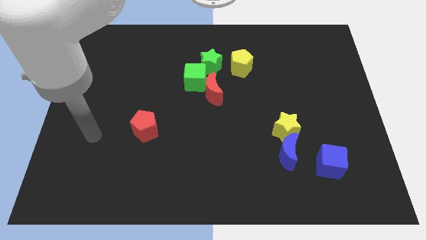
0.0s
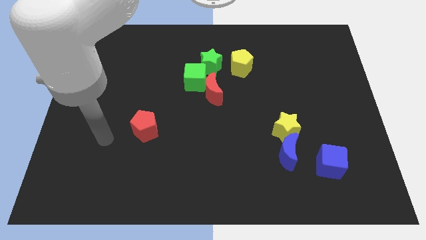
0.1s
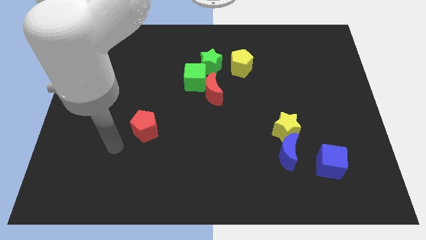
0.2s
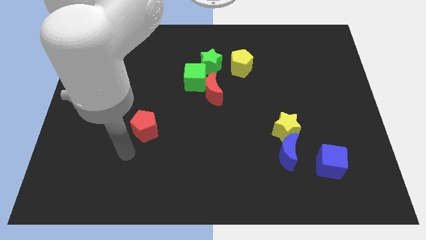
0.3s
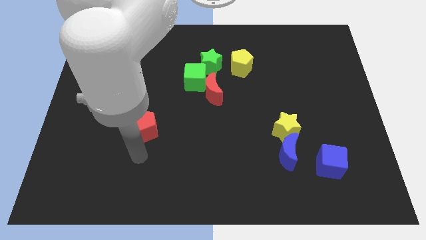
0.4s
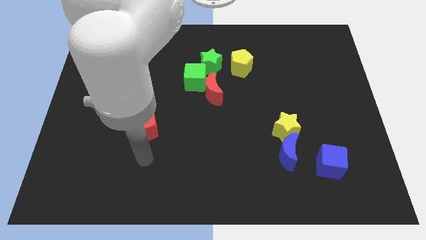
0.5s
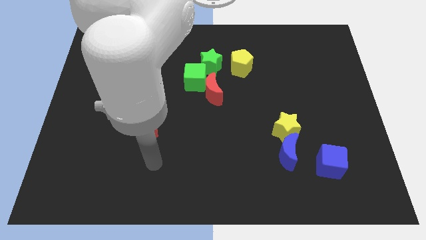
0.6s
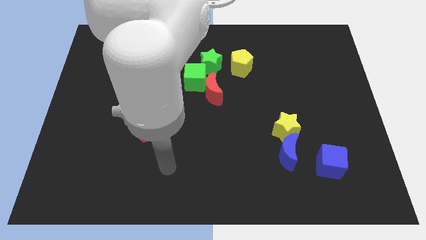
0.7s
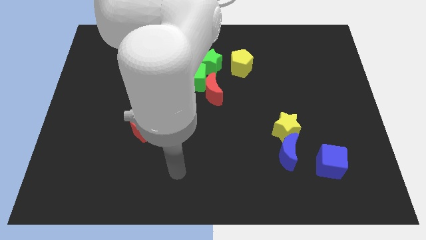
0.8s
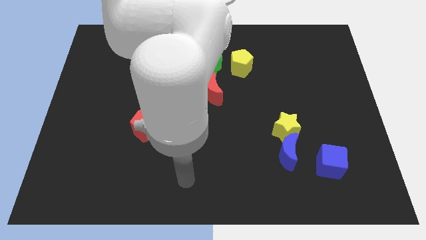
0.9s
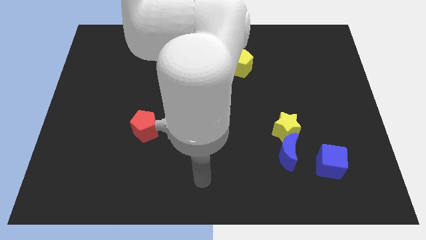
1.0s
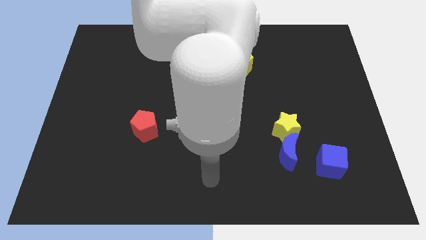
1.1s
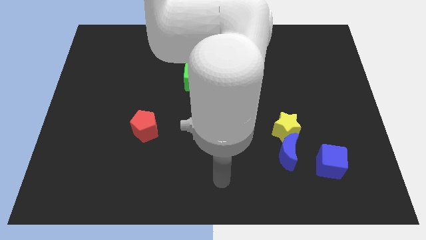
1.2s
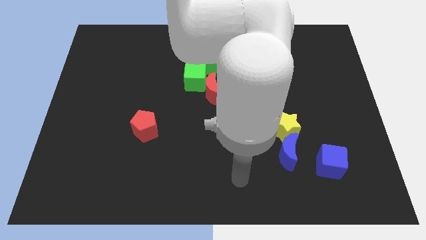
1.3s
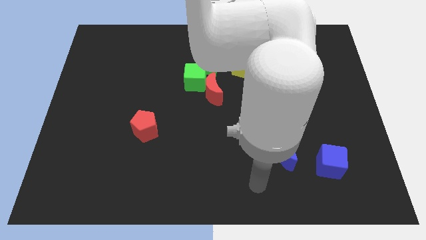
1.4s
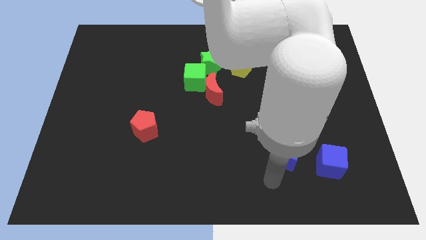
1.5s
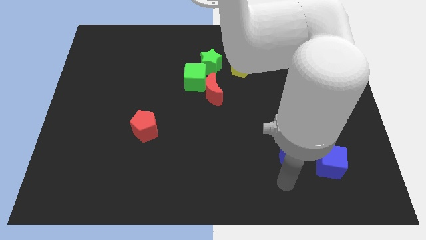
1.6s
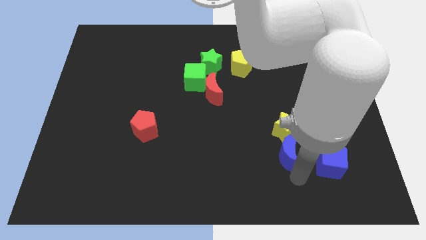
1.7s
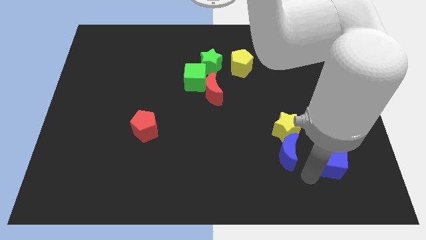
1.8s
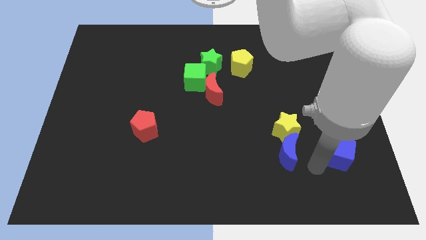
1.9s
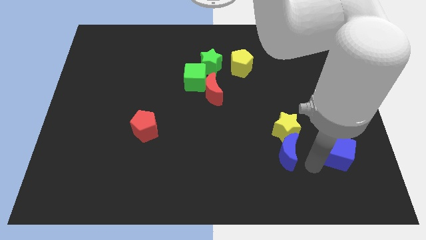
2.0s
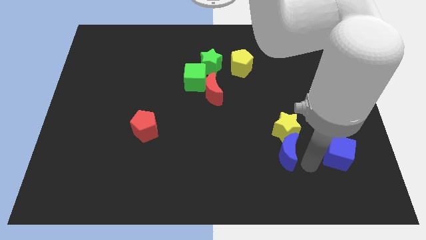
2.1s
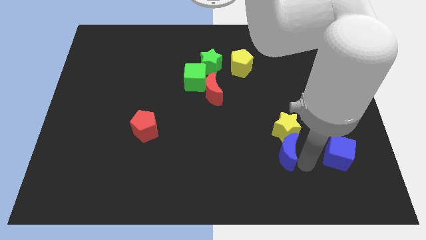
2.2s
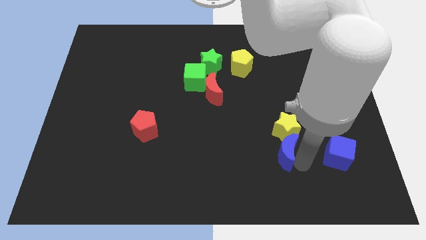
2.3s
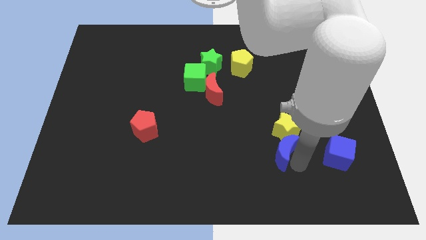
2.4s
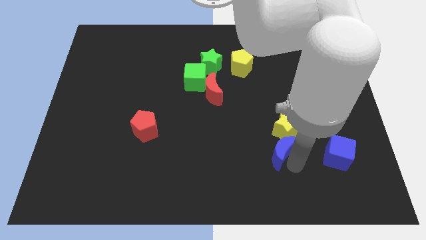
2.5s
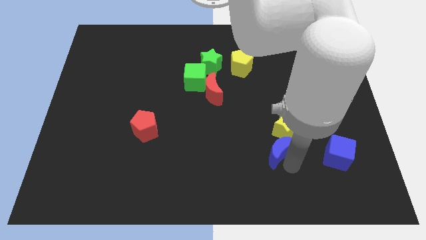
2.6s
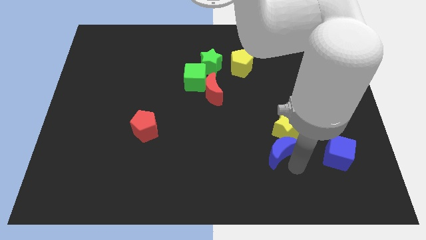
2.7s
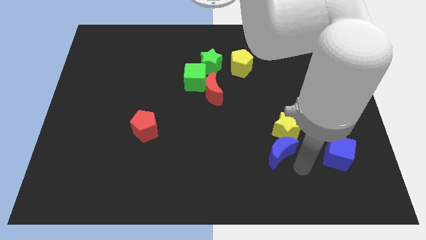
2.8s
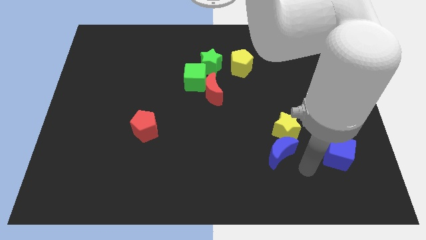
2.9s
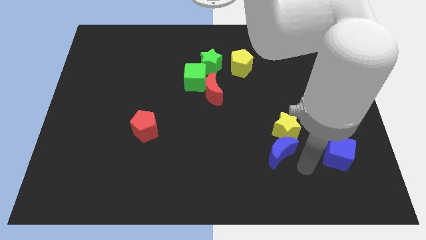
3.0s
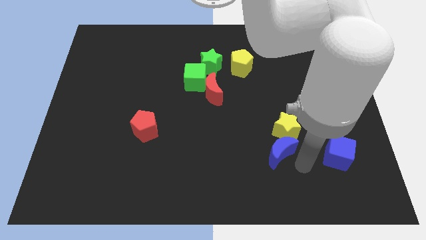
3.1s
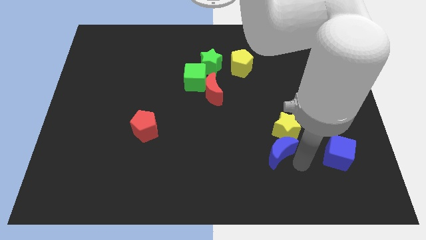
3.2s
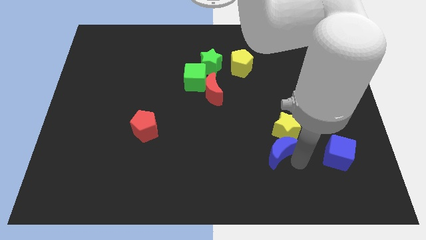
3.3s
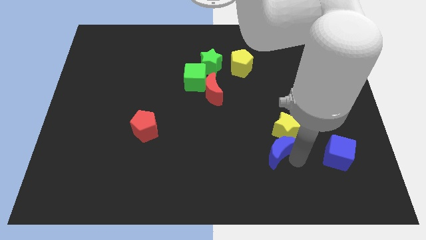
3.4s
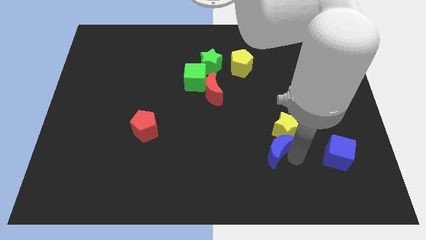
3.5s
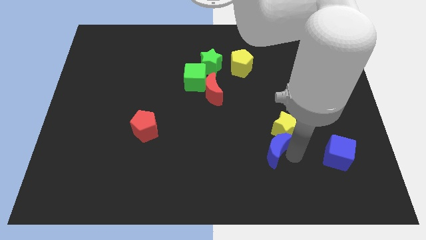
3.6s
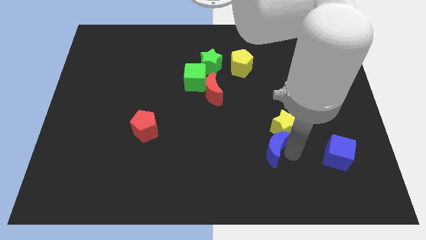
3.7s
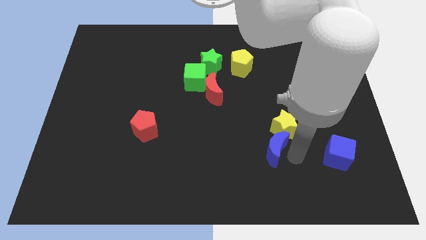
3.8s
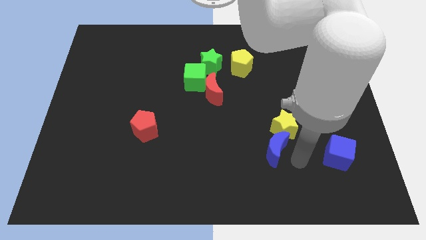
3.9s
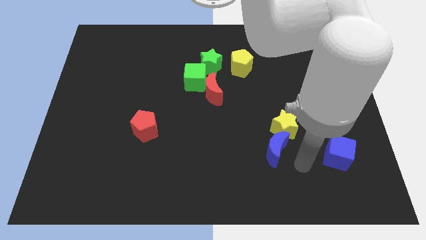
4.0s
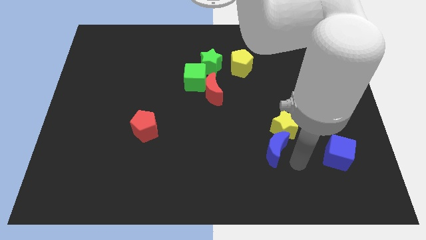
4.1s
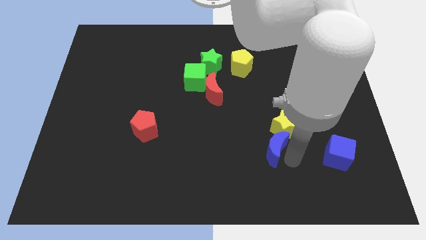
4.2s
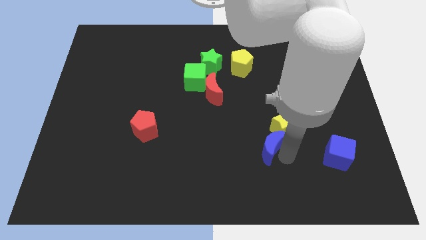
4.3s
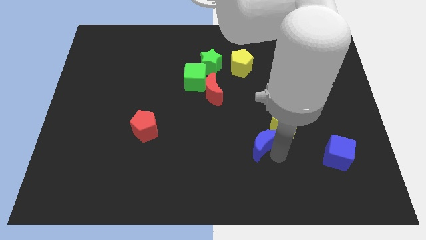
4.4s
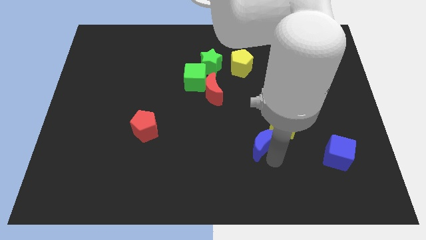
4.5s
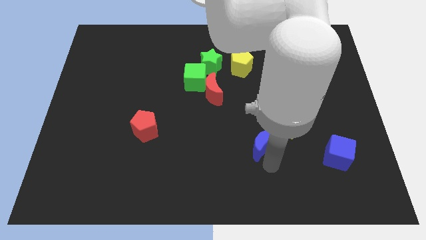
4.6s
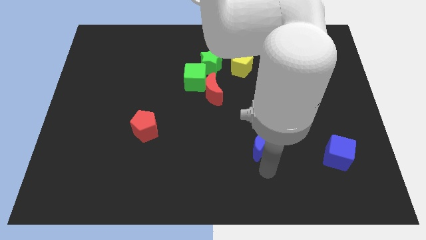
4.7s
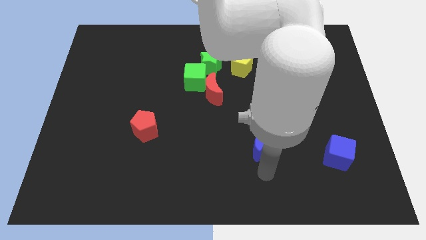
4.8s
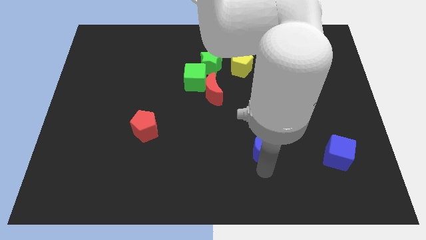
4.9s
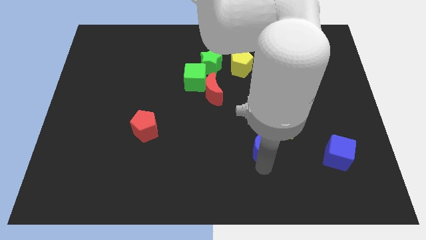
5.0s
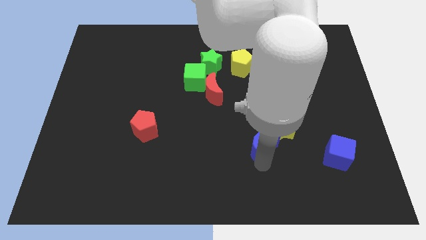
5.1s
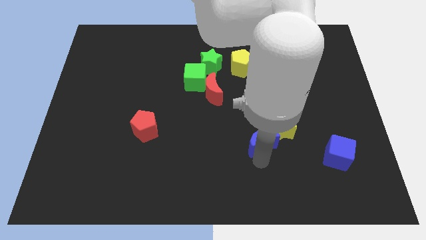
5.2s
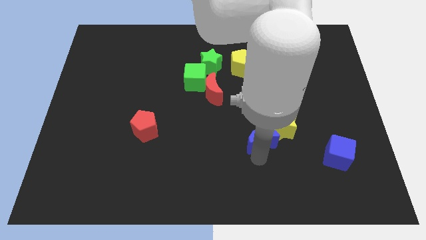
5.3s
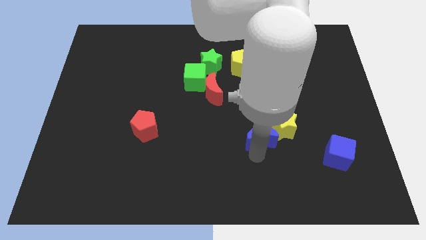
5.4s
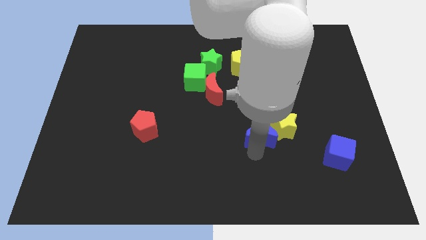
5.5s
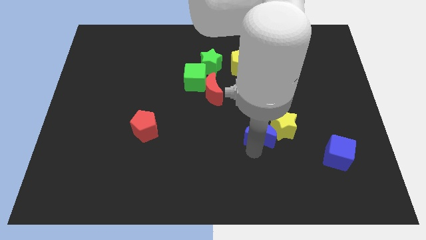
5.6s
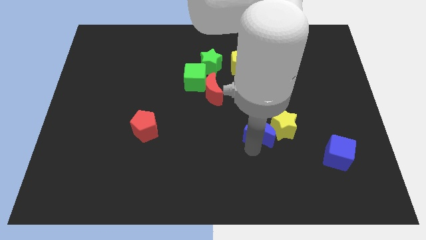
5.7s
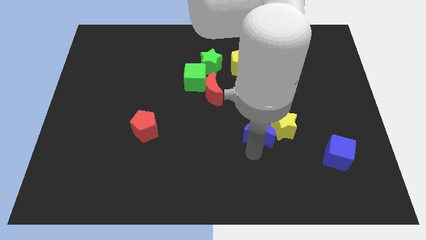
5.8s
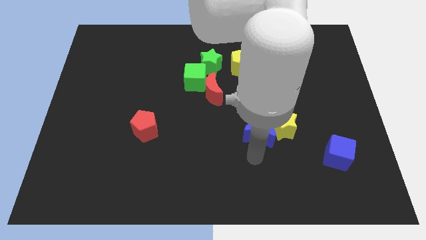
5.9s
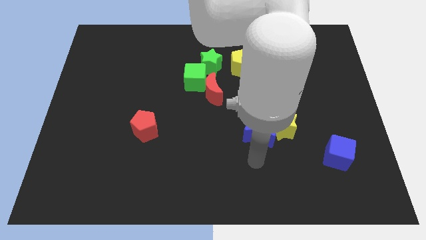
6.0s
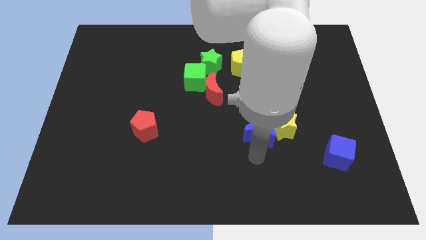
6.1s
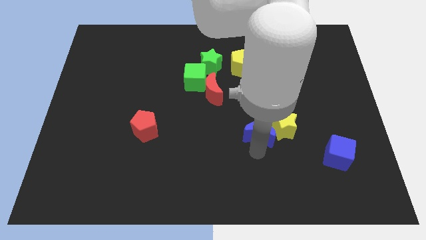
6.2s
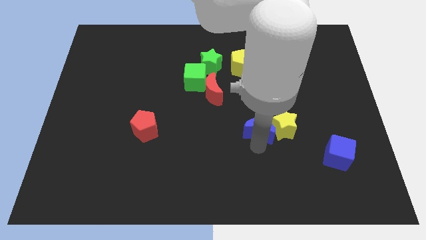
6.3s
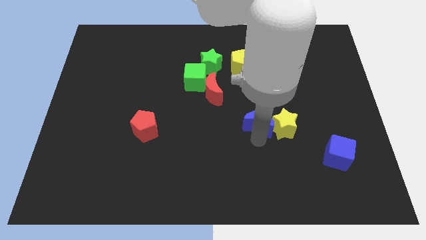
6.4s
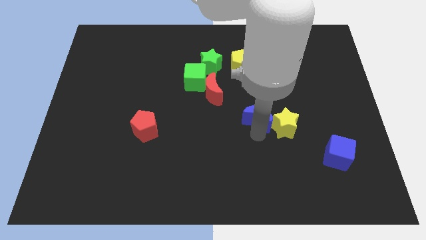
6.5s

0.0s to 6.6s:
push the blue moon a little bit up

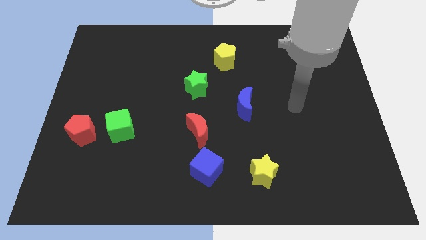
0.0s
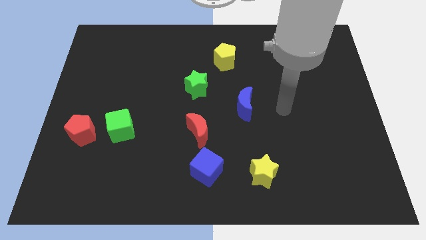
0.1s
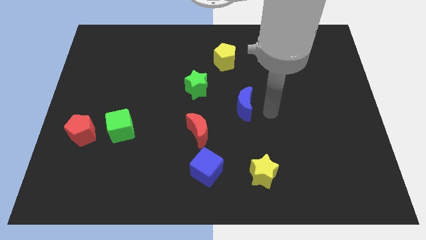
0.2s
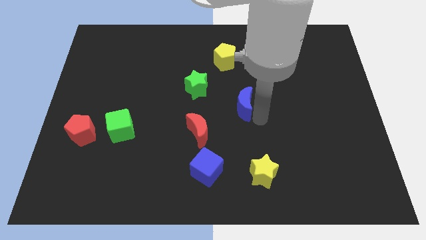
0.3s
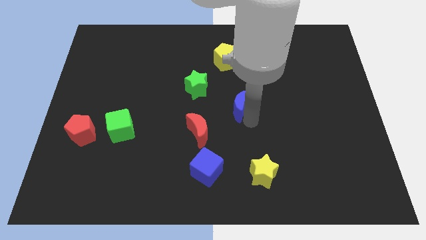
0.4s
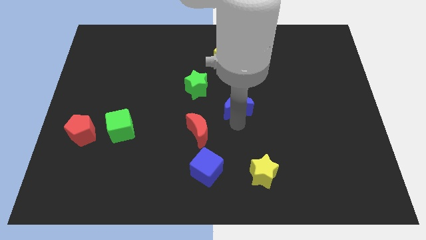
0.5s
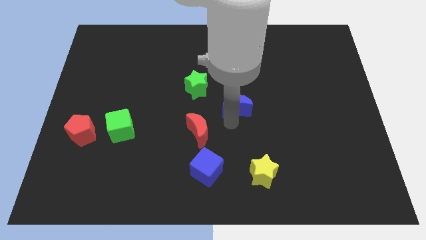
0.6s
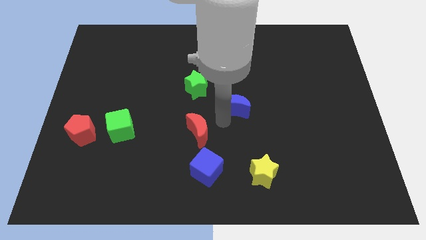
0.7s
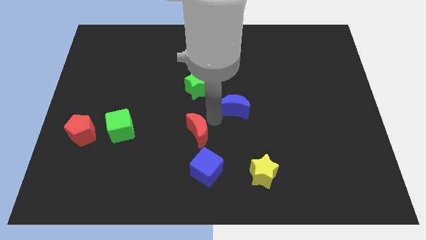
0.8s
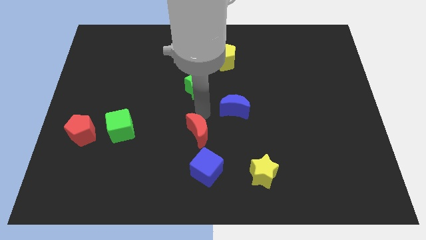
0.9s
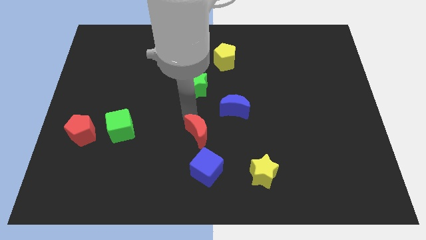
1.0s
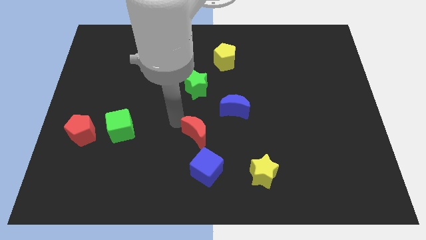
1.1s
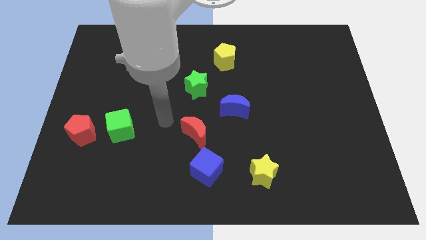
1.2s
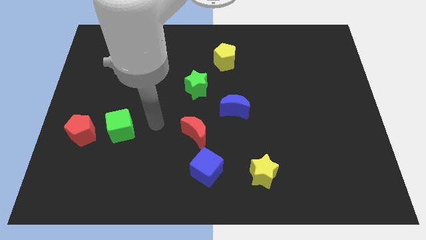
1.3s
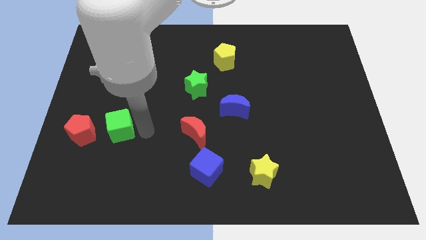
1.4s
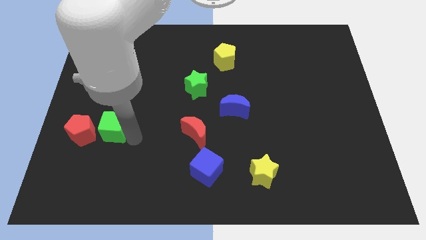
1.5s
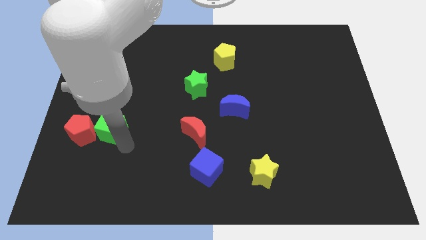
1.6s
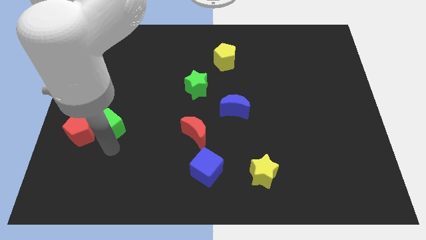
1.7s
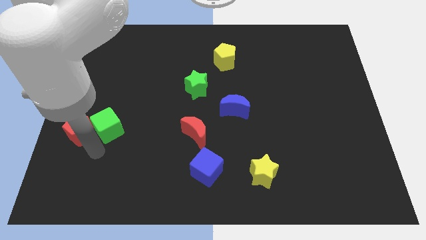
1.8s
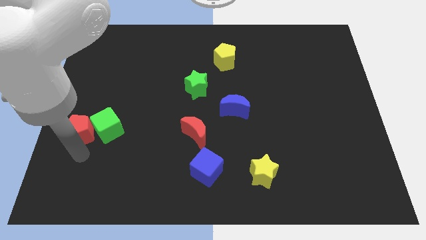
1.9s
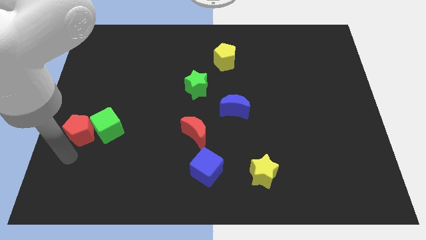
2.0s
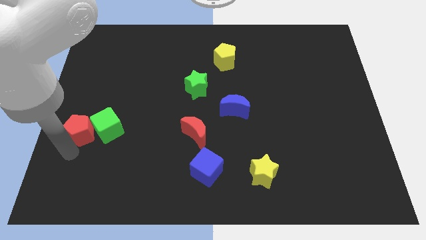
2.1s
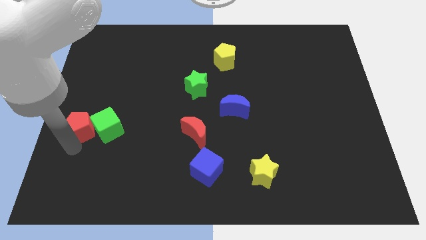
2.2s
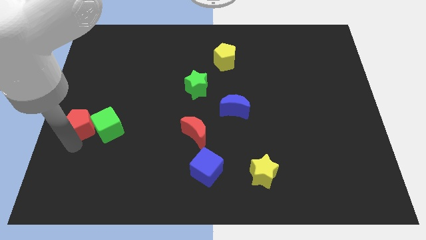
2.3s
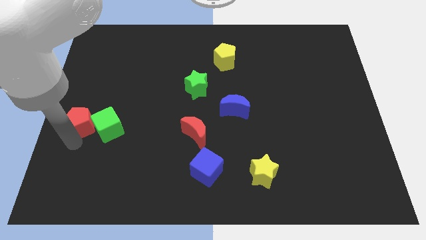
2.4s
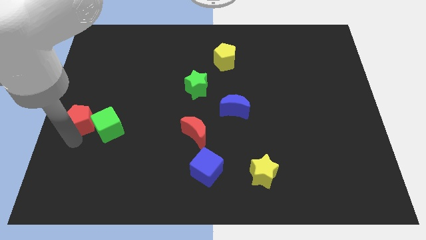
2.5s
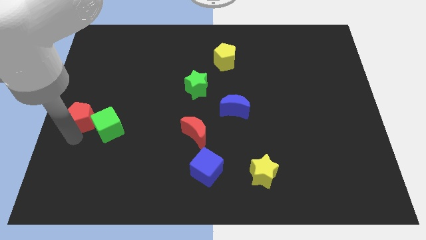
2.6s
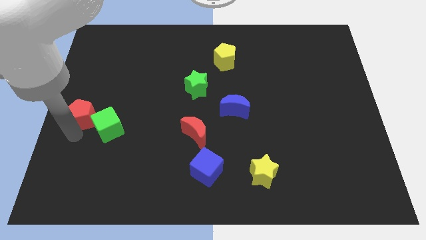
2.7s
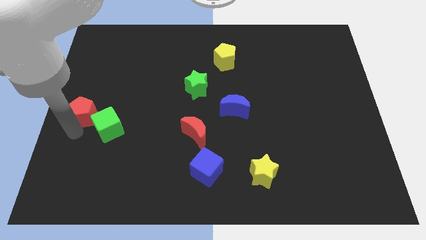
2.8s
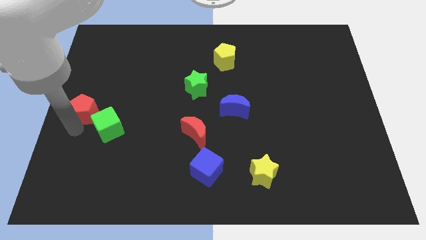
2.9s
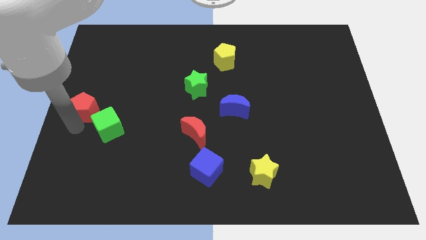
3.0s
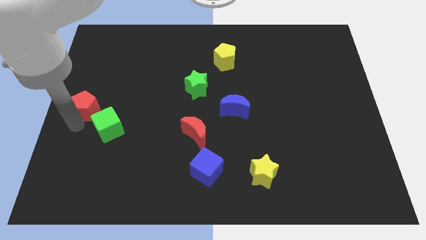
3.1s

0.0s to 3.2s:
slightly move the red pentagon upwards
